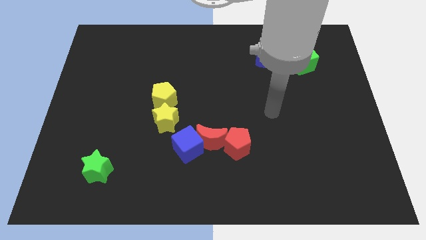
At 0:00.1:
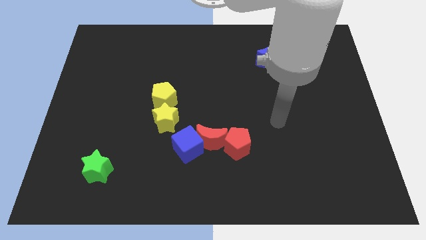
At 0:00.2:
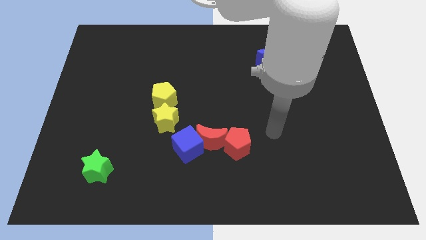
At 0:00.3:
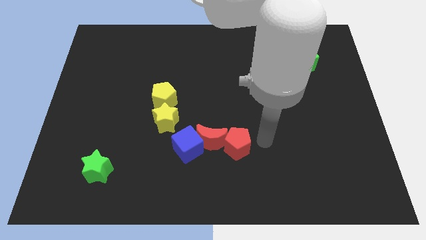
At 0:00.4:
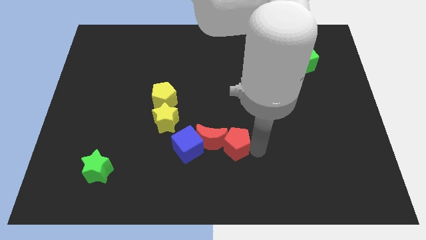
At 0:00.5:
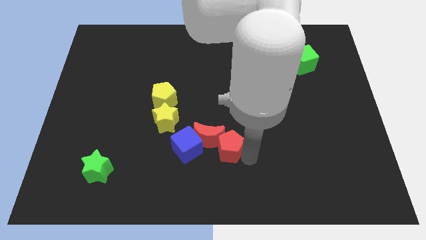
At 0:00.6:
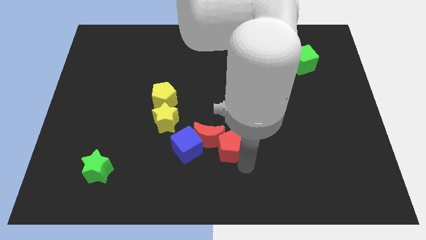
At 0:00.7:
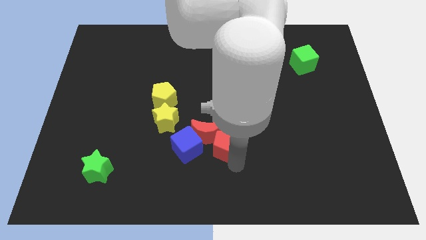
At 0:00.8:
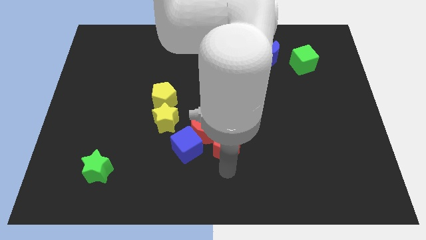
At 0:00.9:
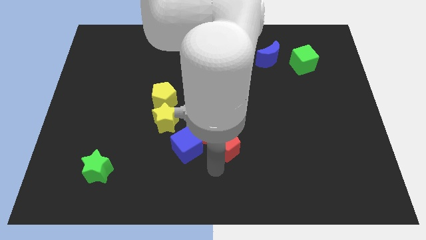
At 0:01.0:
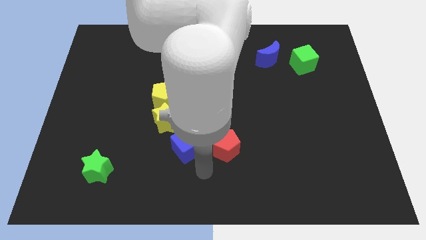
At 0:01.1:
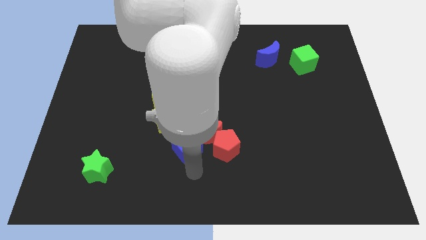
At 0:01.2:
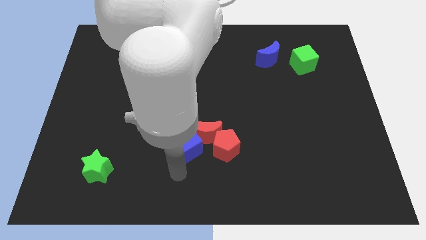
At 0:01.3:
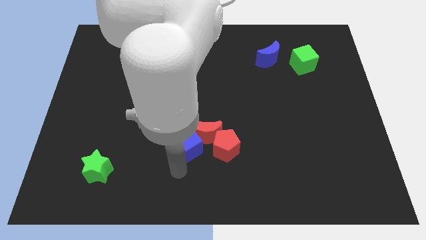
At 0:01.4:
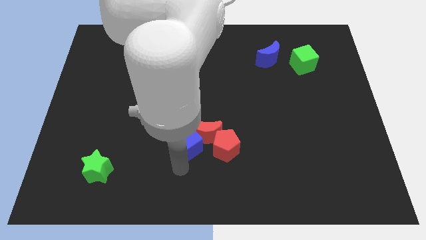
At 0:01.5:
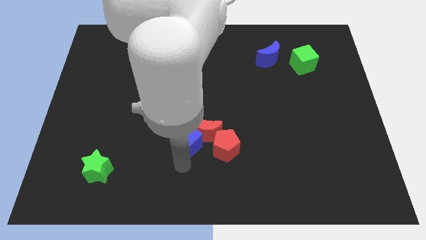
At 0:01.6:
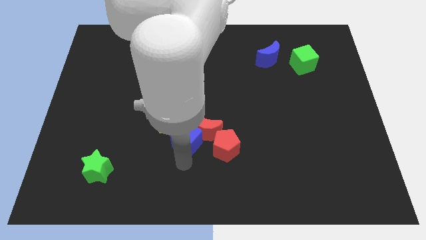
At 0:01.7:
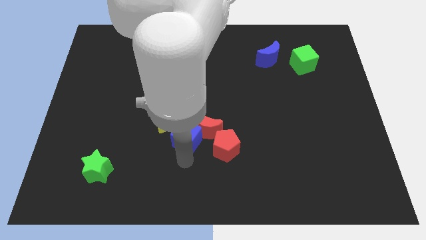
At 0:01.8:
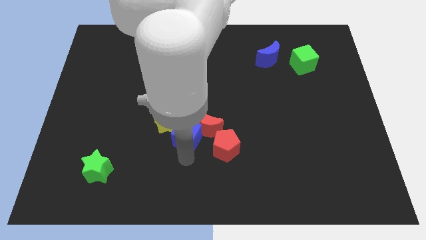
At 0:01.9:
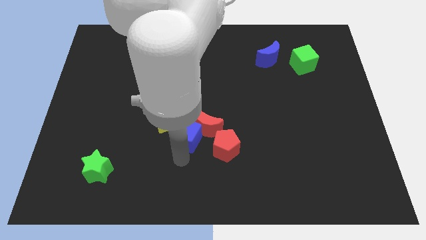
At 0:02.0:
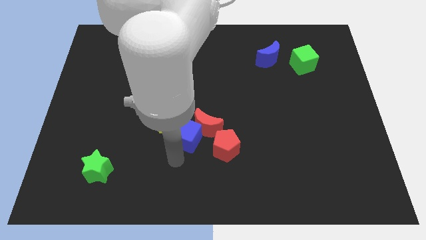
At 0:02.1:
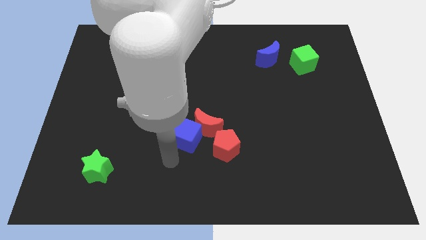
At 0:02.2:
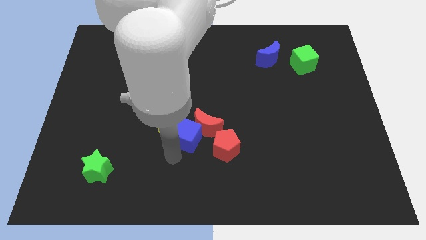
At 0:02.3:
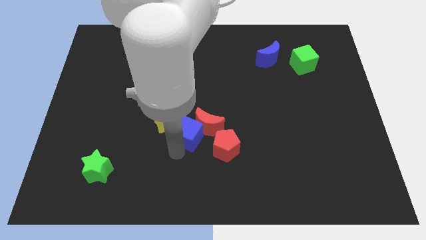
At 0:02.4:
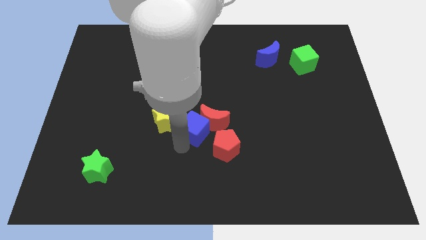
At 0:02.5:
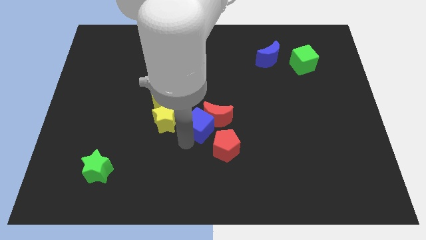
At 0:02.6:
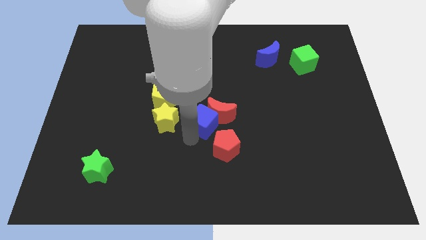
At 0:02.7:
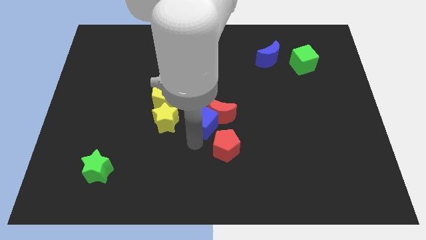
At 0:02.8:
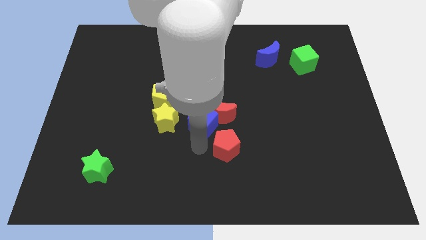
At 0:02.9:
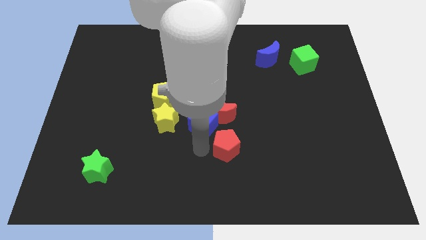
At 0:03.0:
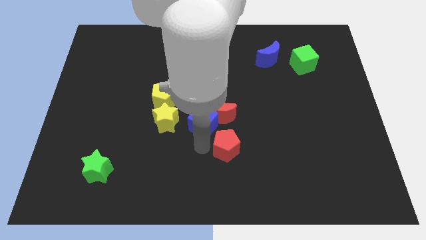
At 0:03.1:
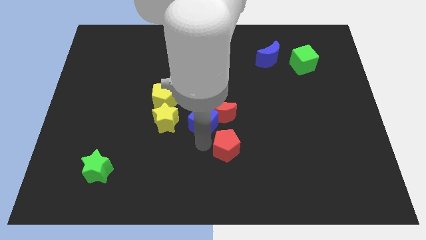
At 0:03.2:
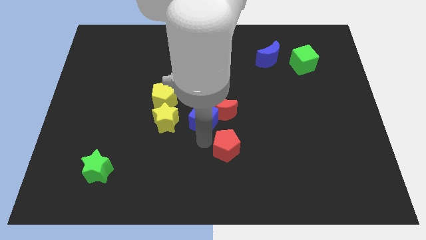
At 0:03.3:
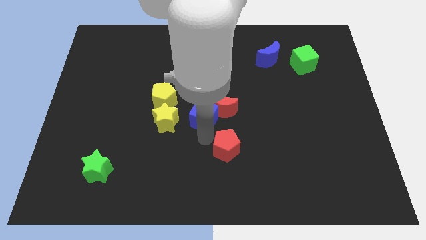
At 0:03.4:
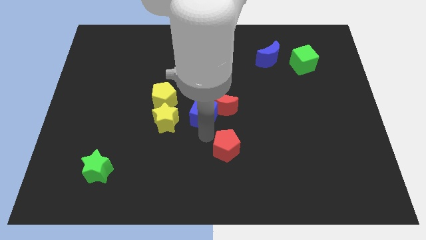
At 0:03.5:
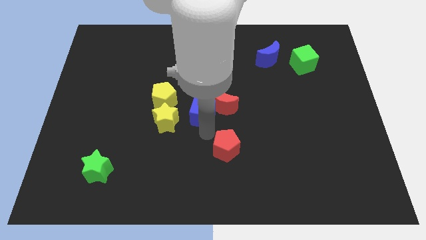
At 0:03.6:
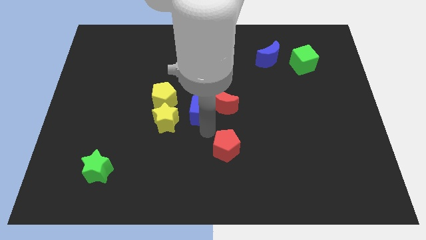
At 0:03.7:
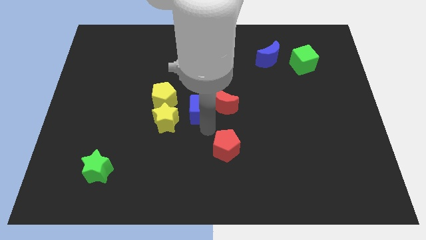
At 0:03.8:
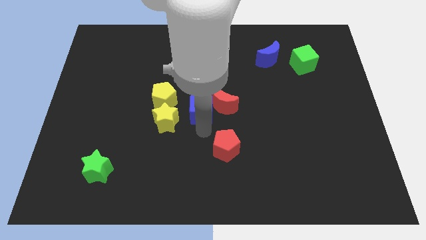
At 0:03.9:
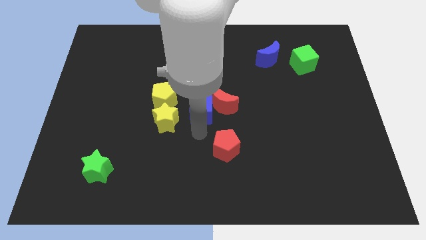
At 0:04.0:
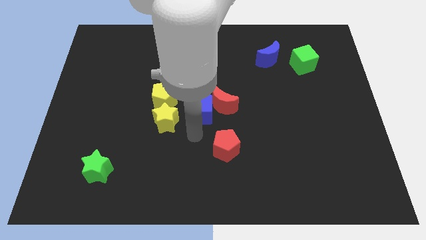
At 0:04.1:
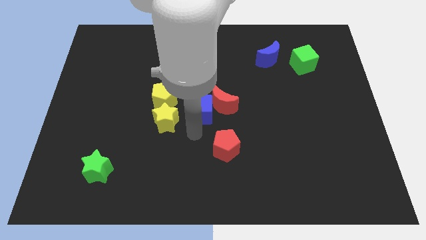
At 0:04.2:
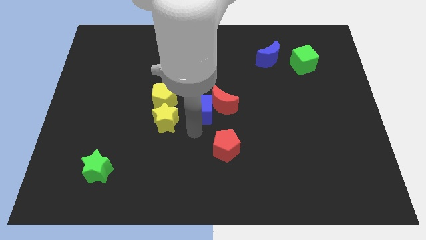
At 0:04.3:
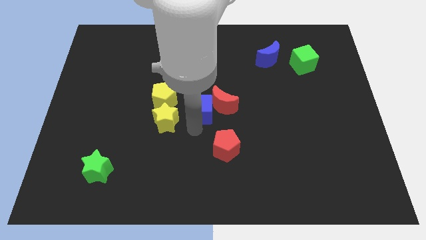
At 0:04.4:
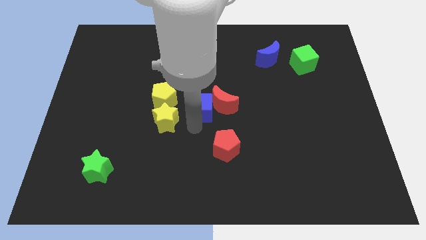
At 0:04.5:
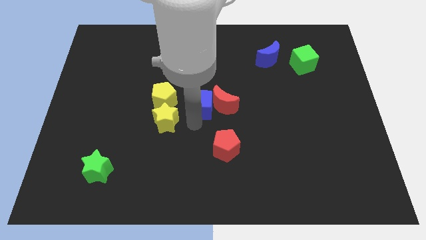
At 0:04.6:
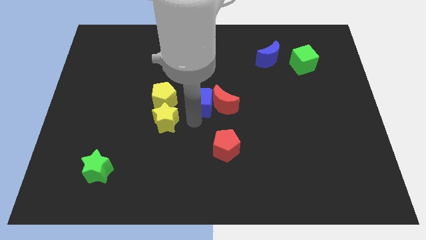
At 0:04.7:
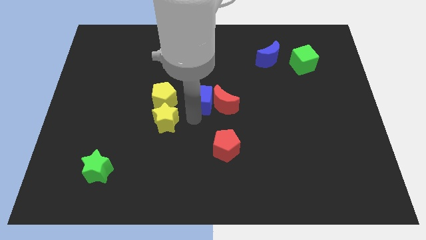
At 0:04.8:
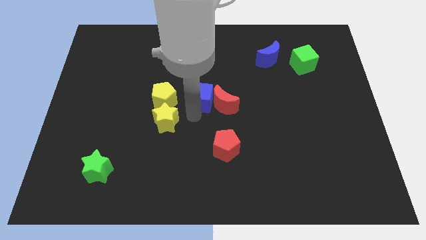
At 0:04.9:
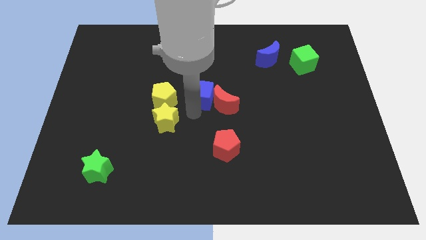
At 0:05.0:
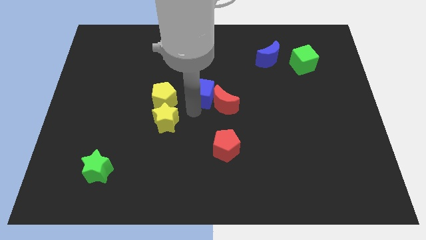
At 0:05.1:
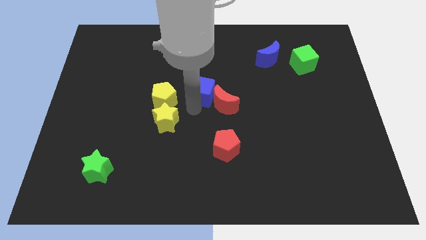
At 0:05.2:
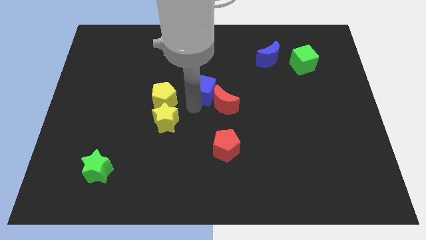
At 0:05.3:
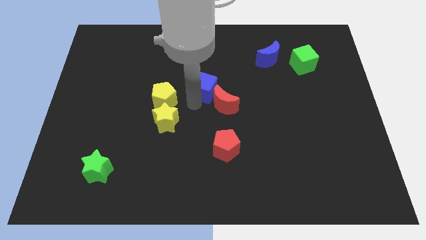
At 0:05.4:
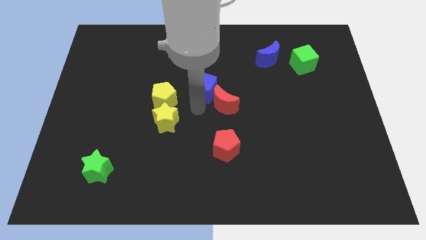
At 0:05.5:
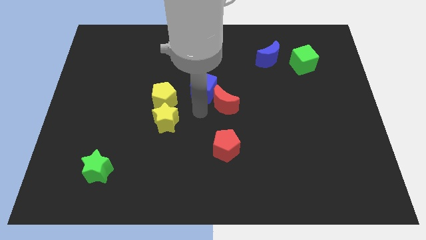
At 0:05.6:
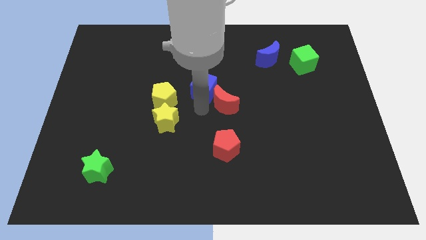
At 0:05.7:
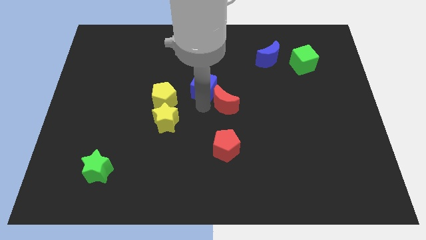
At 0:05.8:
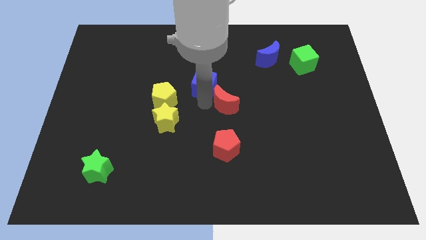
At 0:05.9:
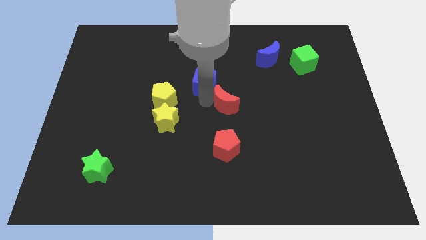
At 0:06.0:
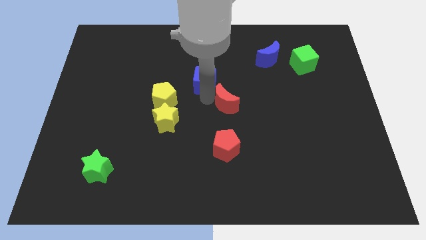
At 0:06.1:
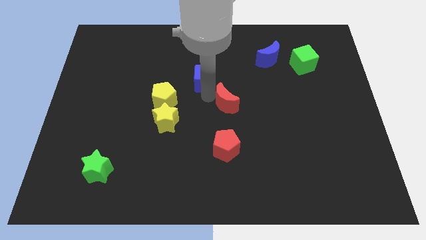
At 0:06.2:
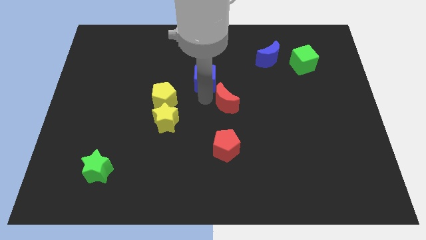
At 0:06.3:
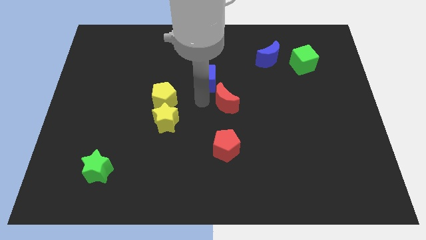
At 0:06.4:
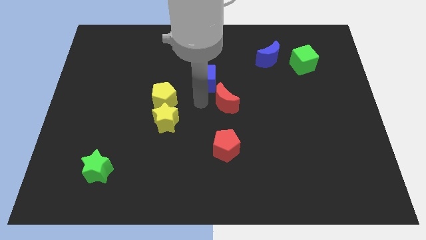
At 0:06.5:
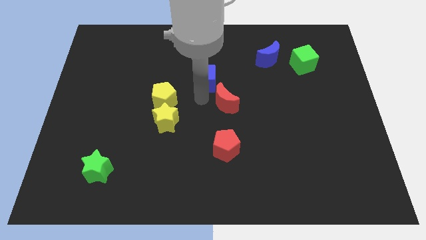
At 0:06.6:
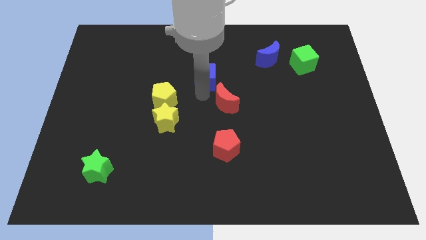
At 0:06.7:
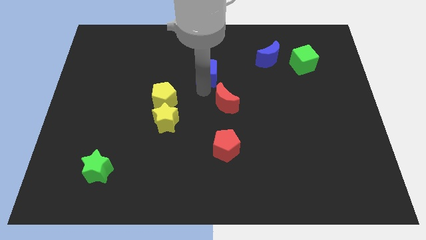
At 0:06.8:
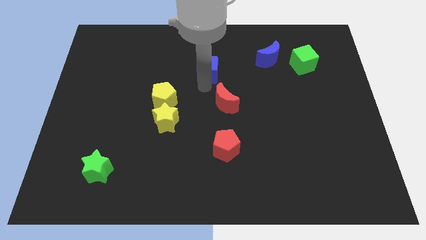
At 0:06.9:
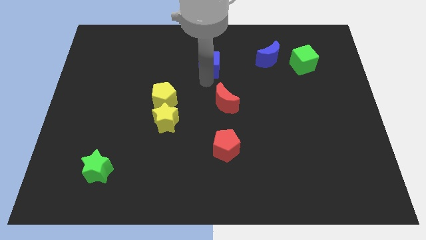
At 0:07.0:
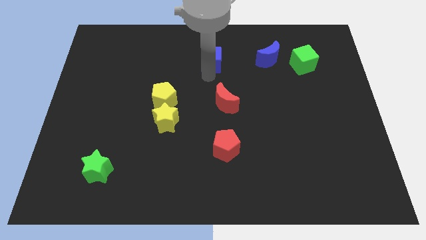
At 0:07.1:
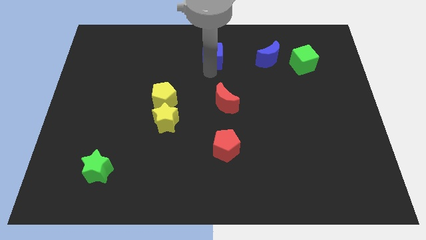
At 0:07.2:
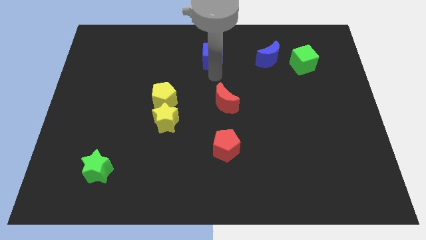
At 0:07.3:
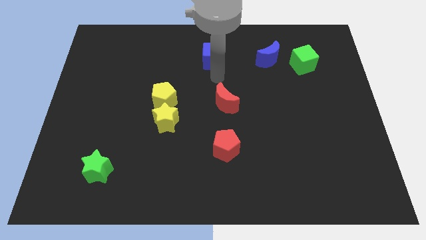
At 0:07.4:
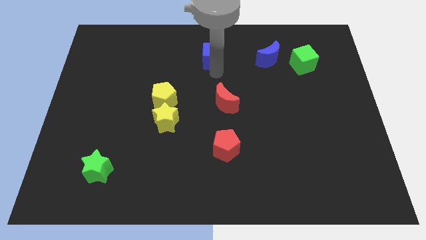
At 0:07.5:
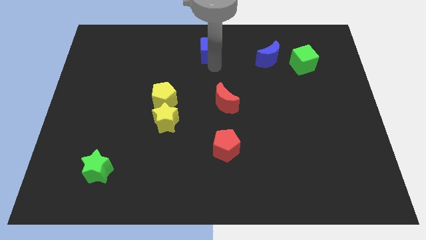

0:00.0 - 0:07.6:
move the blue cube to the top side
